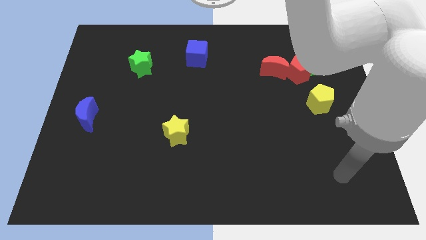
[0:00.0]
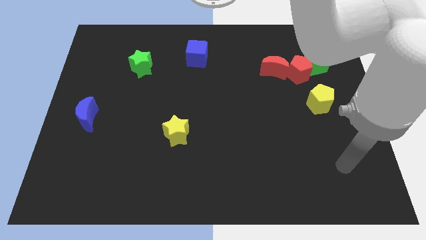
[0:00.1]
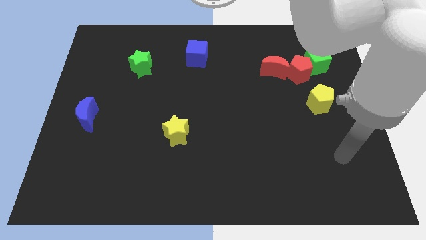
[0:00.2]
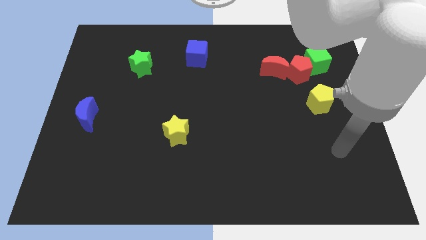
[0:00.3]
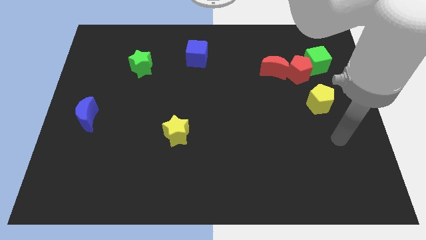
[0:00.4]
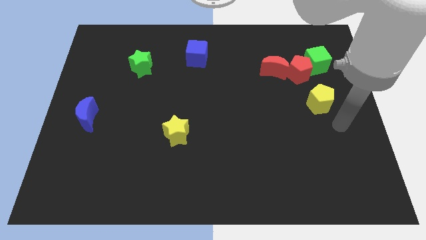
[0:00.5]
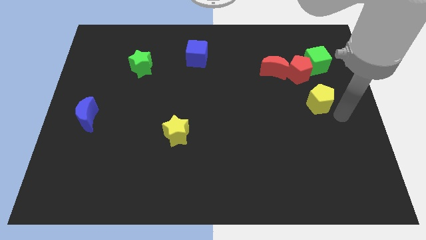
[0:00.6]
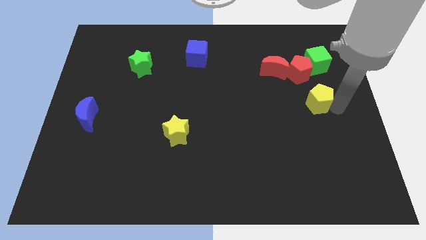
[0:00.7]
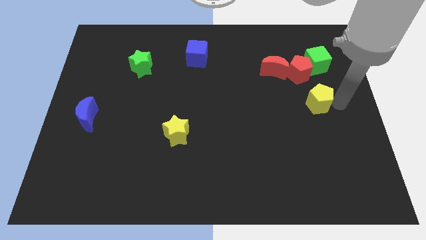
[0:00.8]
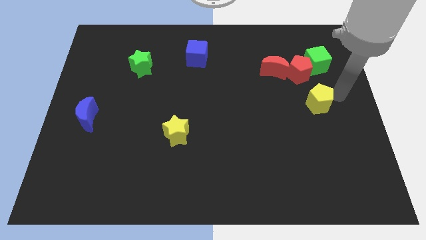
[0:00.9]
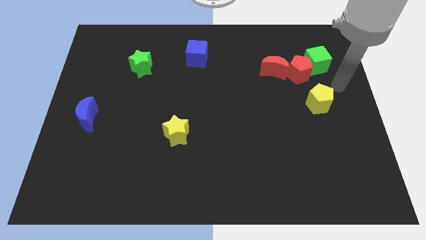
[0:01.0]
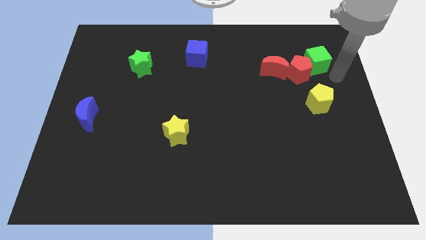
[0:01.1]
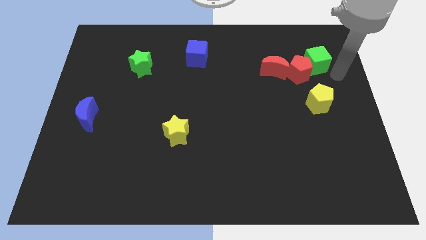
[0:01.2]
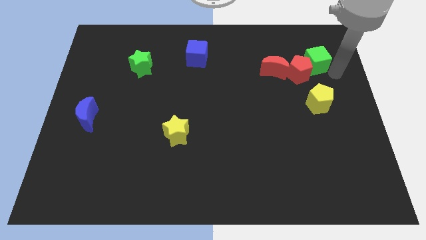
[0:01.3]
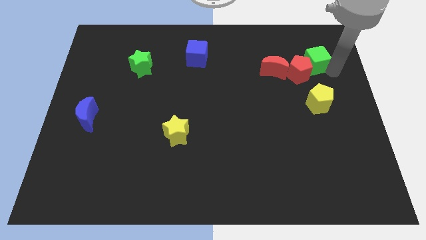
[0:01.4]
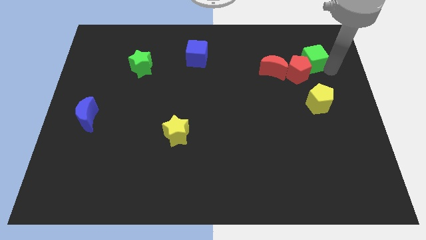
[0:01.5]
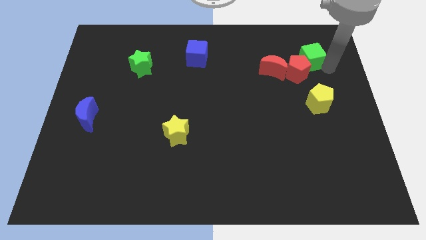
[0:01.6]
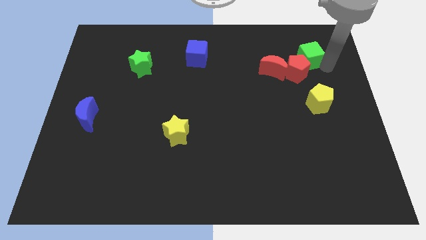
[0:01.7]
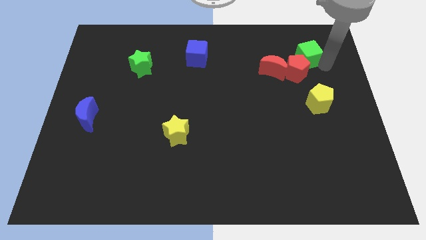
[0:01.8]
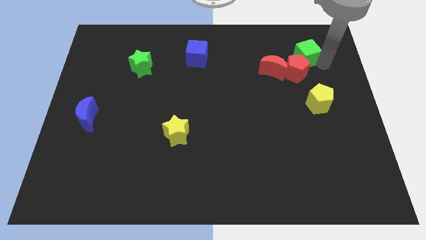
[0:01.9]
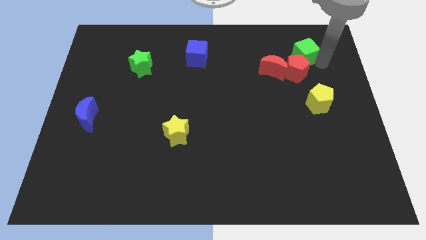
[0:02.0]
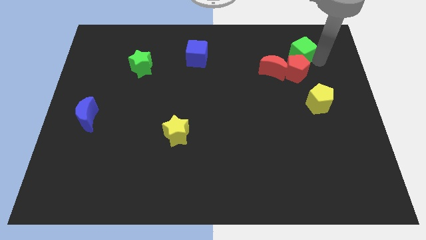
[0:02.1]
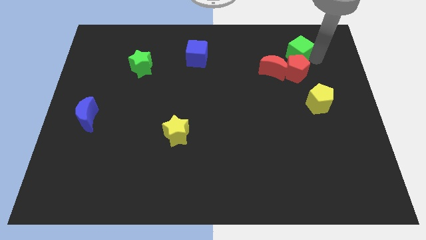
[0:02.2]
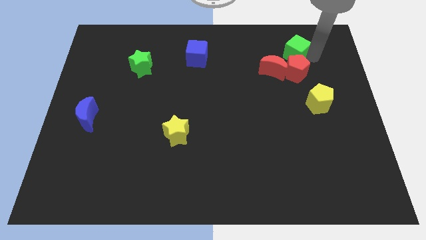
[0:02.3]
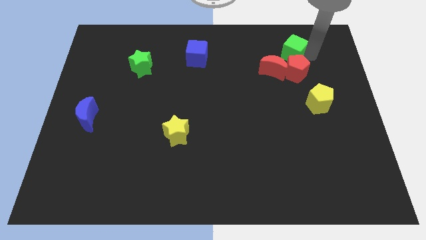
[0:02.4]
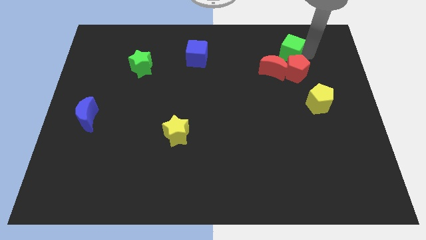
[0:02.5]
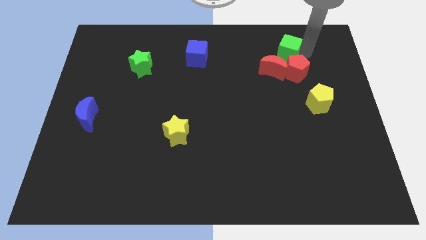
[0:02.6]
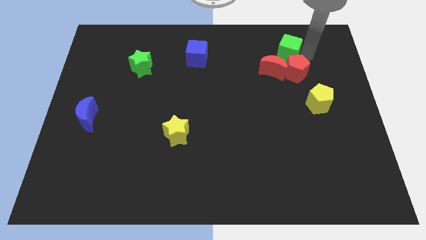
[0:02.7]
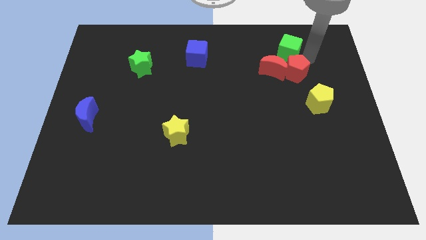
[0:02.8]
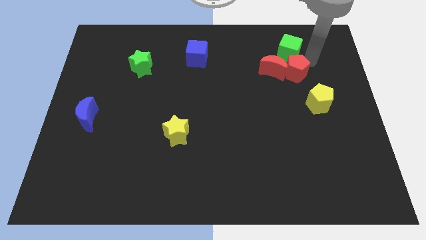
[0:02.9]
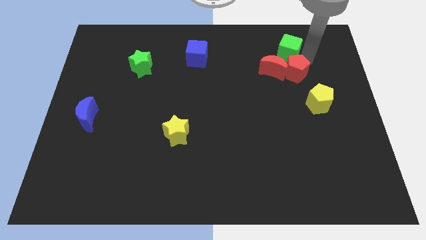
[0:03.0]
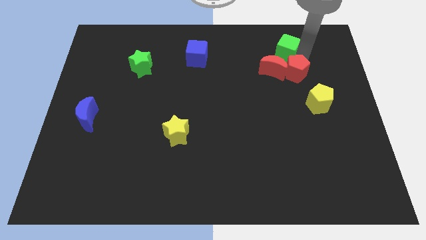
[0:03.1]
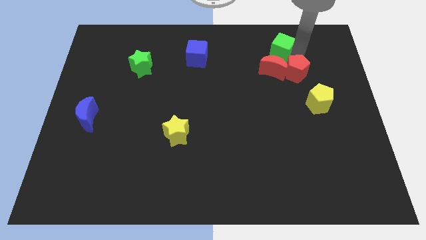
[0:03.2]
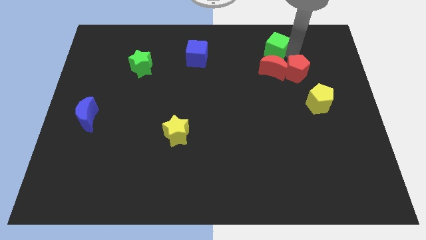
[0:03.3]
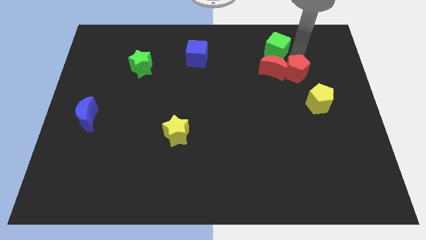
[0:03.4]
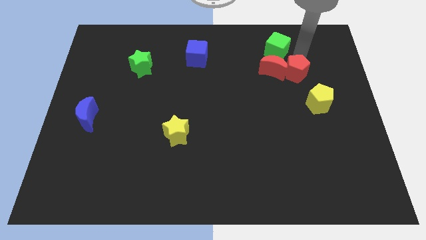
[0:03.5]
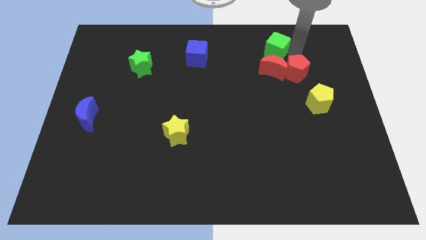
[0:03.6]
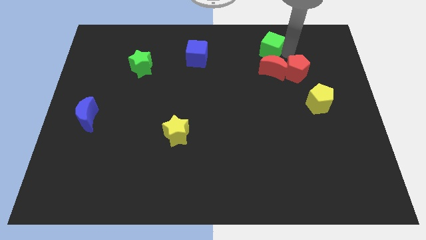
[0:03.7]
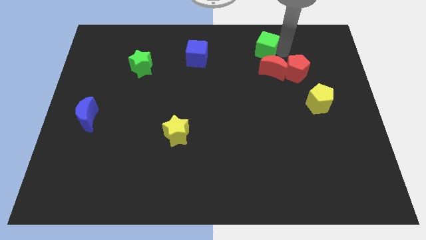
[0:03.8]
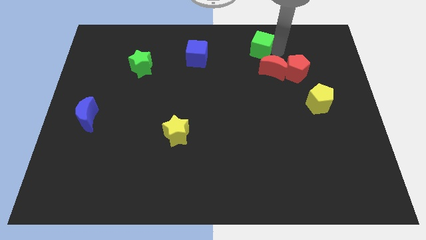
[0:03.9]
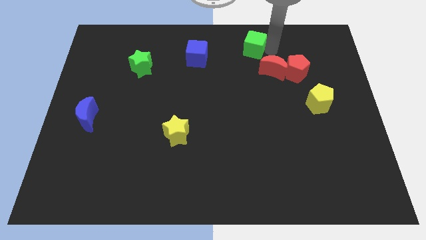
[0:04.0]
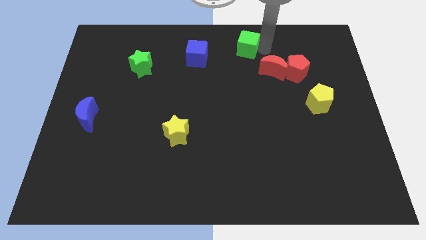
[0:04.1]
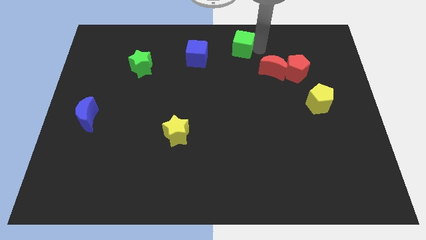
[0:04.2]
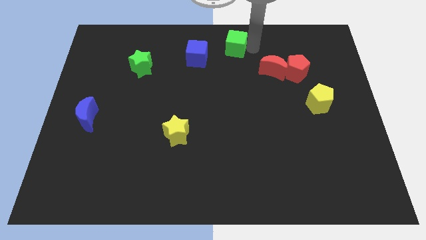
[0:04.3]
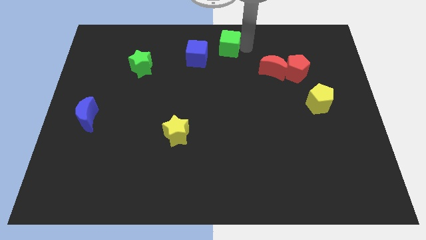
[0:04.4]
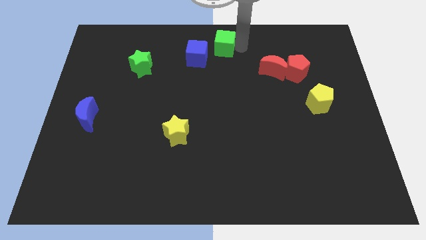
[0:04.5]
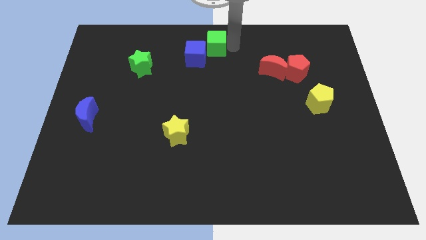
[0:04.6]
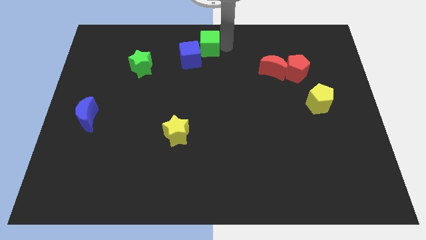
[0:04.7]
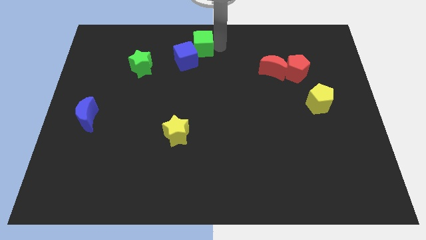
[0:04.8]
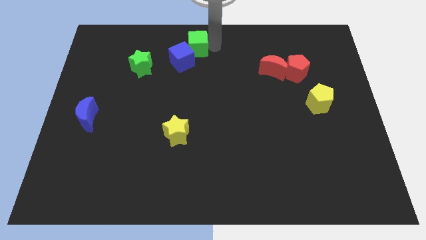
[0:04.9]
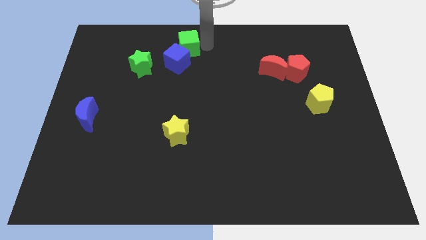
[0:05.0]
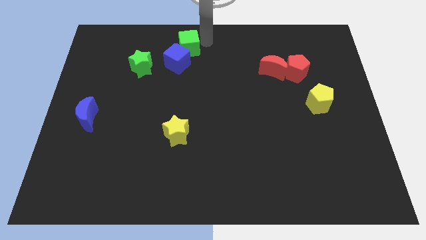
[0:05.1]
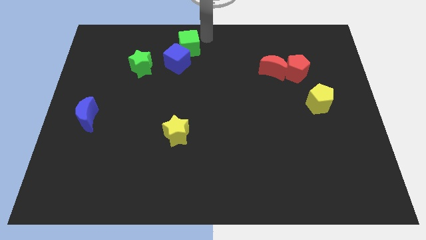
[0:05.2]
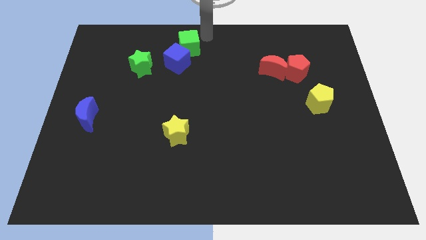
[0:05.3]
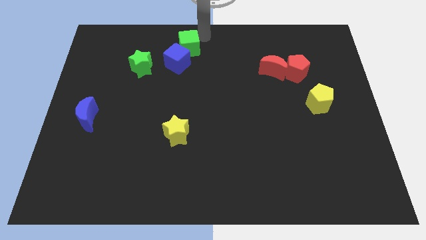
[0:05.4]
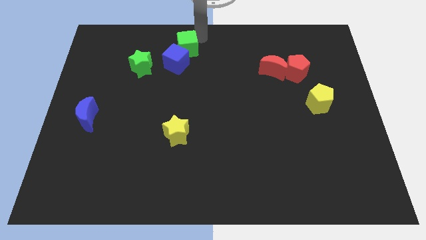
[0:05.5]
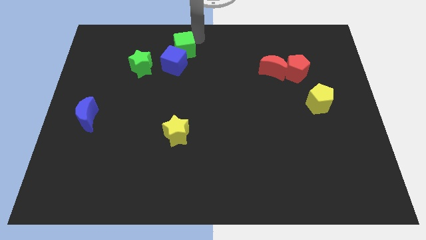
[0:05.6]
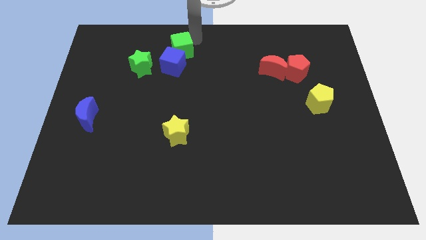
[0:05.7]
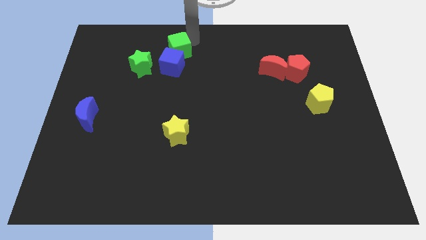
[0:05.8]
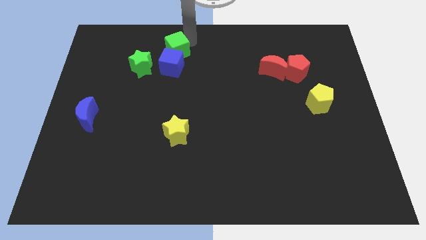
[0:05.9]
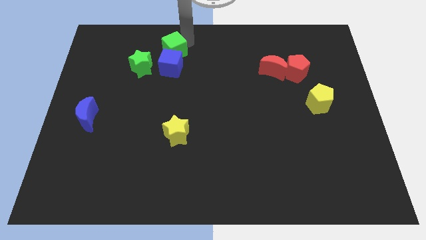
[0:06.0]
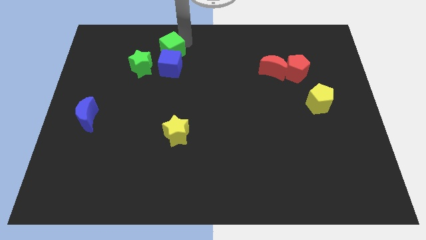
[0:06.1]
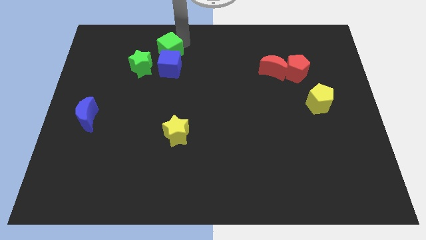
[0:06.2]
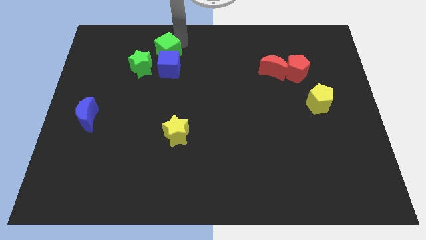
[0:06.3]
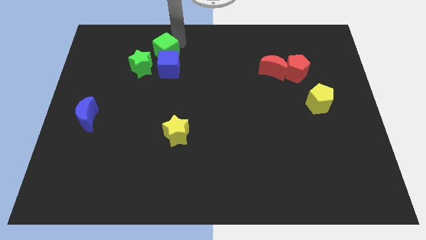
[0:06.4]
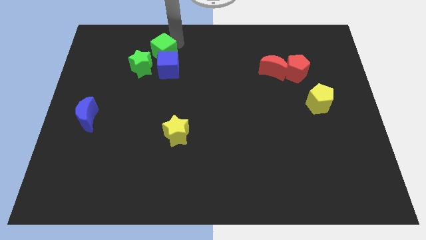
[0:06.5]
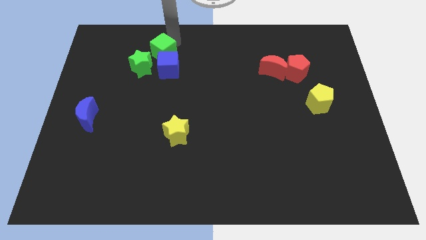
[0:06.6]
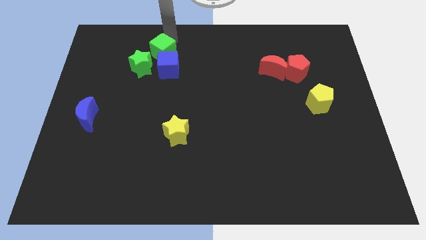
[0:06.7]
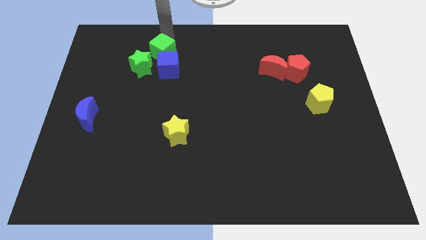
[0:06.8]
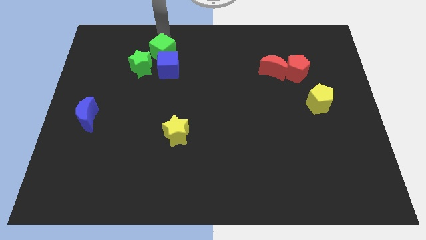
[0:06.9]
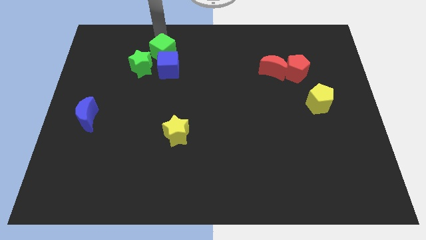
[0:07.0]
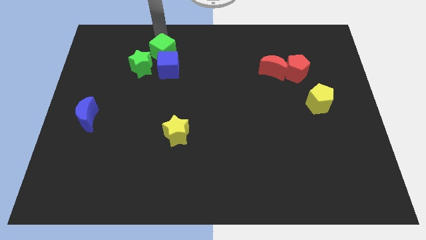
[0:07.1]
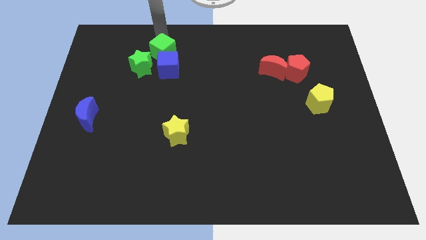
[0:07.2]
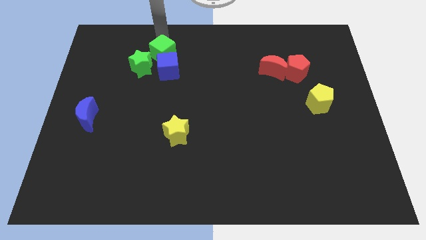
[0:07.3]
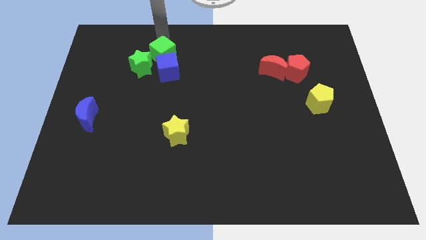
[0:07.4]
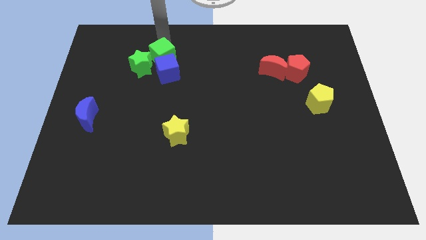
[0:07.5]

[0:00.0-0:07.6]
slide the green cube towards the green star
